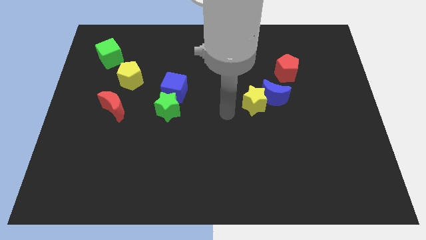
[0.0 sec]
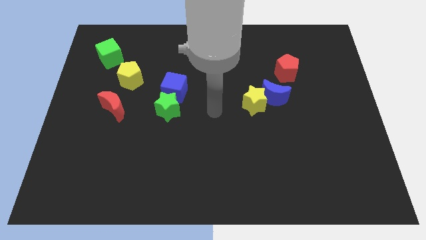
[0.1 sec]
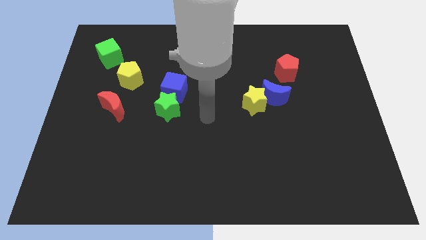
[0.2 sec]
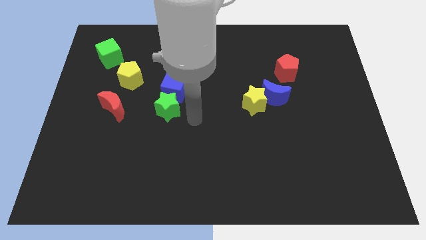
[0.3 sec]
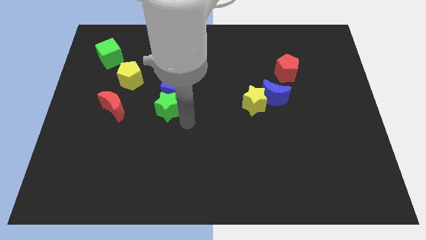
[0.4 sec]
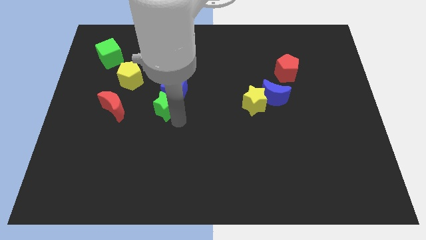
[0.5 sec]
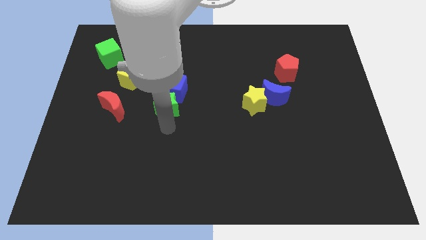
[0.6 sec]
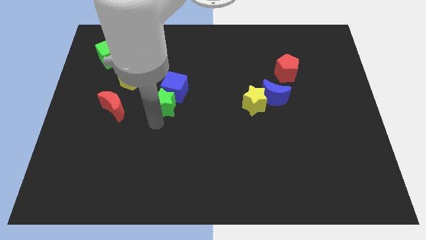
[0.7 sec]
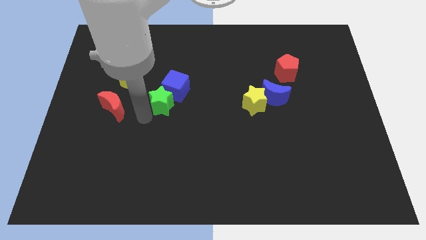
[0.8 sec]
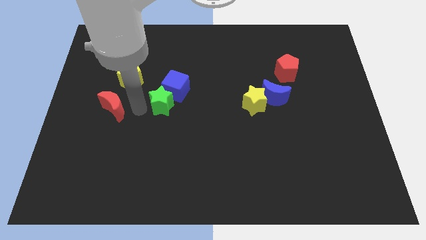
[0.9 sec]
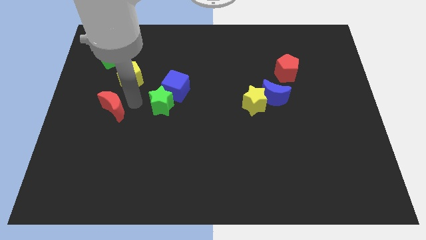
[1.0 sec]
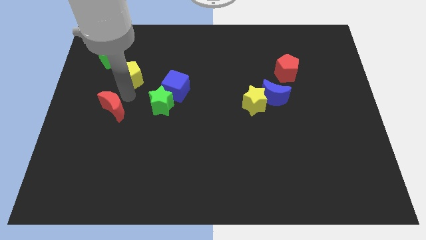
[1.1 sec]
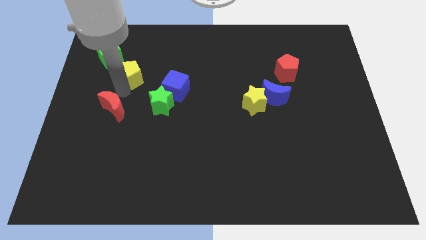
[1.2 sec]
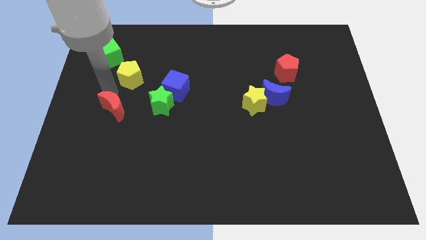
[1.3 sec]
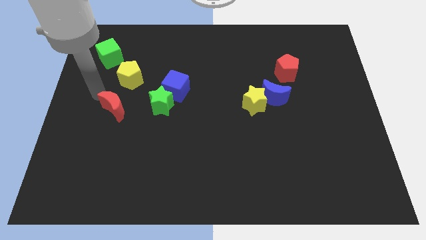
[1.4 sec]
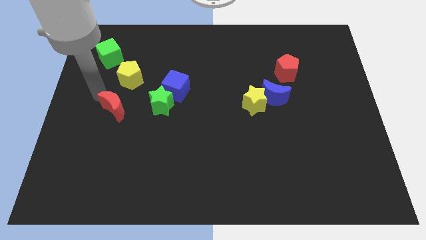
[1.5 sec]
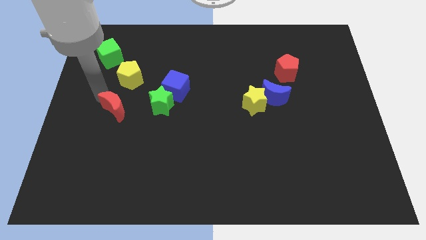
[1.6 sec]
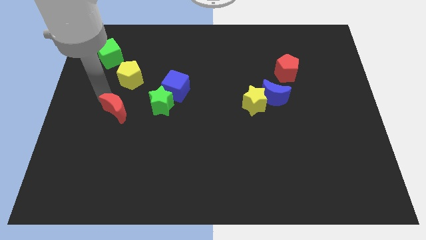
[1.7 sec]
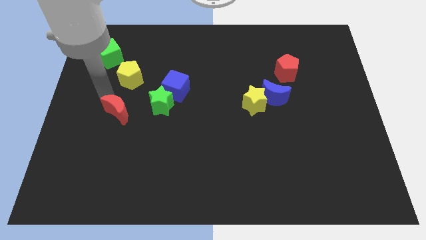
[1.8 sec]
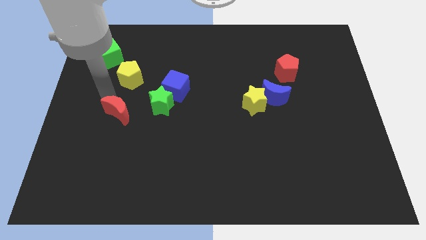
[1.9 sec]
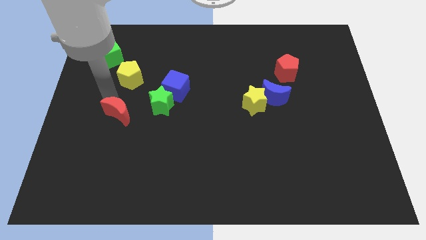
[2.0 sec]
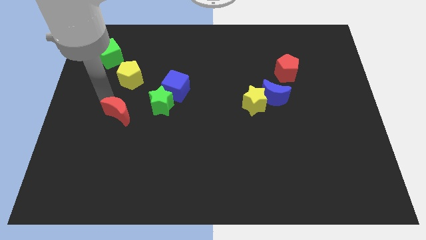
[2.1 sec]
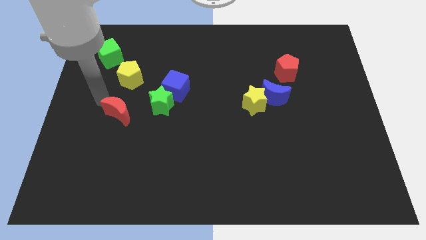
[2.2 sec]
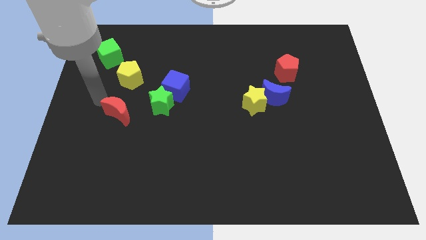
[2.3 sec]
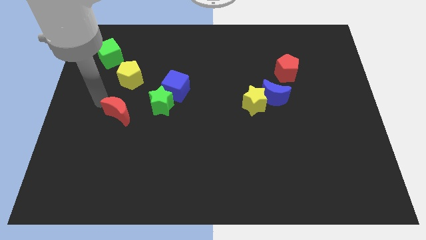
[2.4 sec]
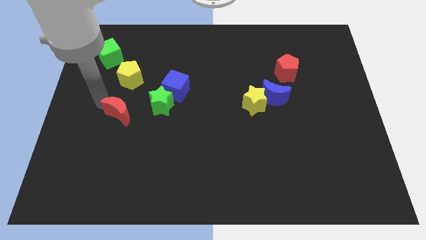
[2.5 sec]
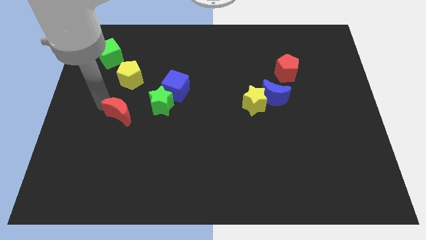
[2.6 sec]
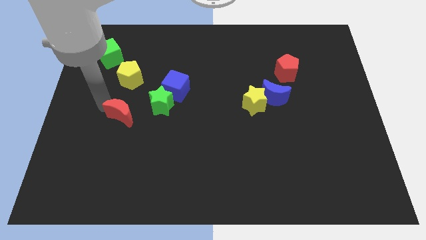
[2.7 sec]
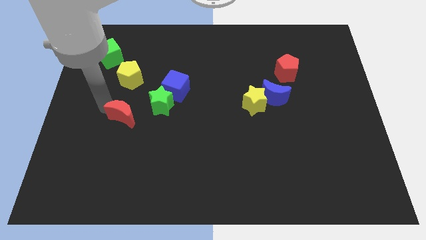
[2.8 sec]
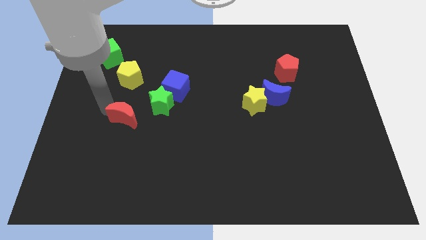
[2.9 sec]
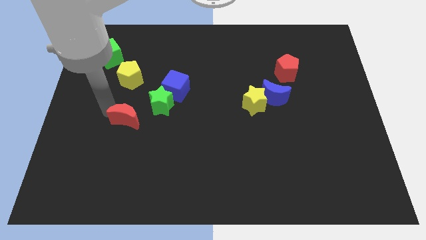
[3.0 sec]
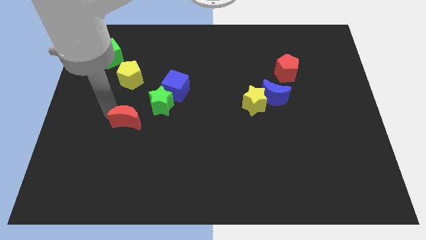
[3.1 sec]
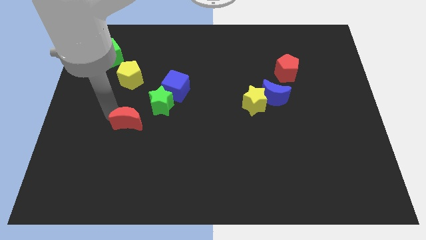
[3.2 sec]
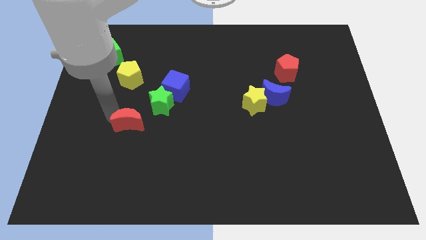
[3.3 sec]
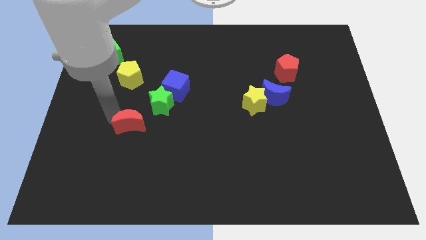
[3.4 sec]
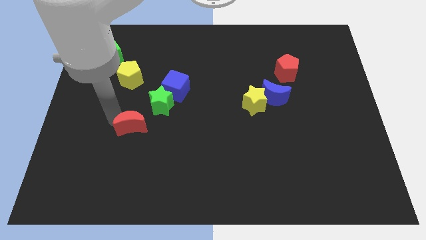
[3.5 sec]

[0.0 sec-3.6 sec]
move the red moon down and to the right diagonally a little

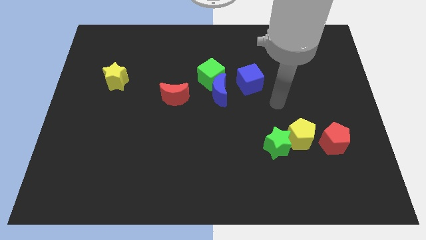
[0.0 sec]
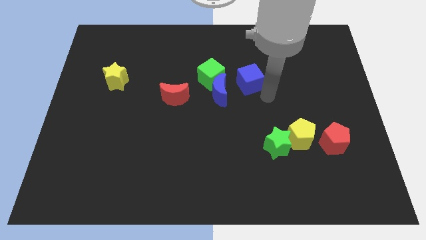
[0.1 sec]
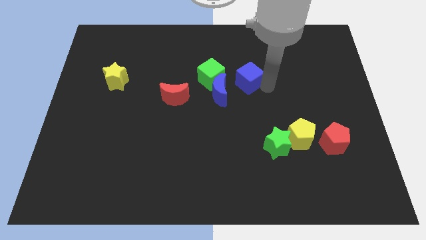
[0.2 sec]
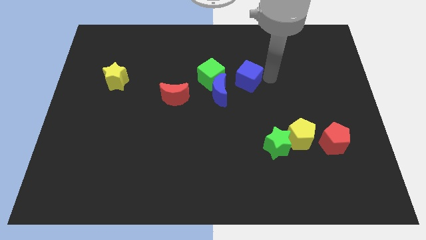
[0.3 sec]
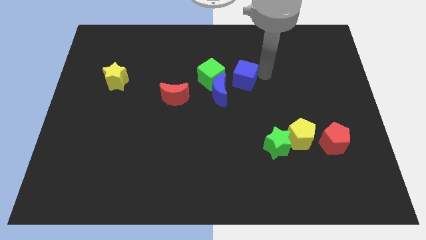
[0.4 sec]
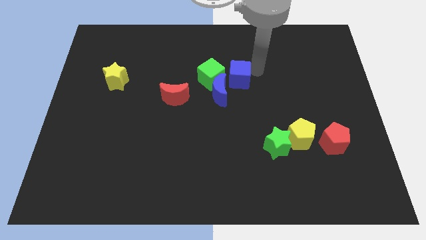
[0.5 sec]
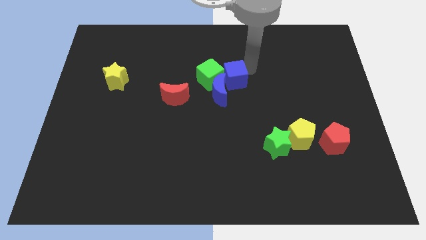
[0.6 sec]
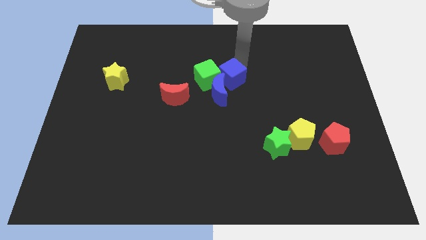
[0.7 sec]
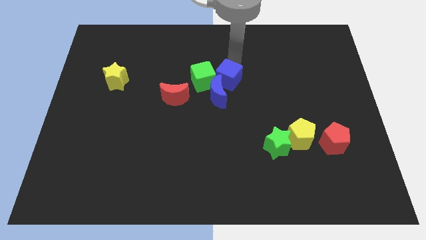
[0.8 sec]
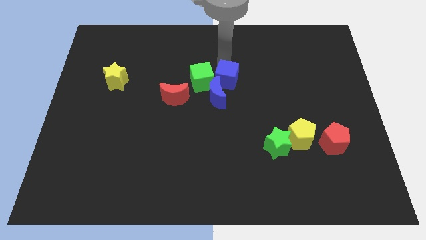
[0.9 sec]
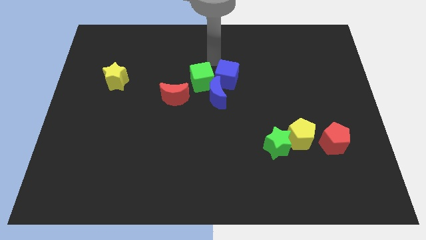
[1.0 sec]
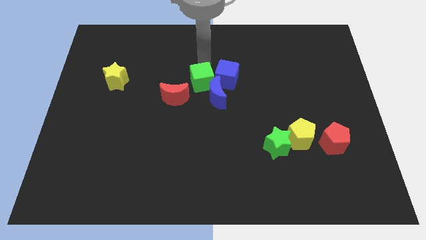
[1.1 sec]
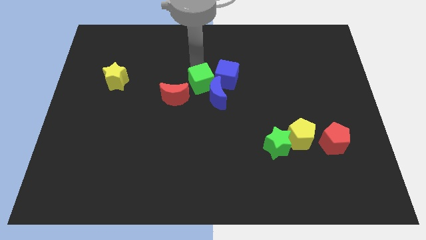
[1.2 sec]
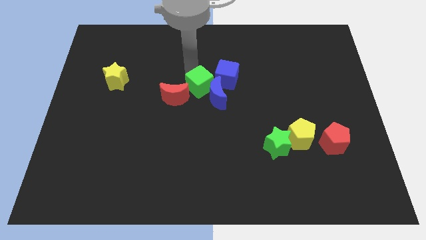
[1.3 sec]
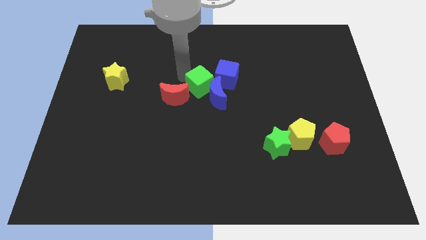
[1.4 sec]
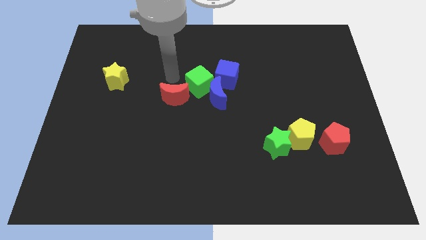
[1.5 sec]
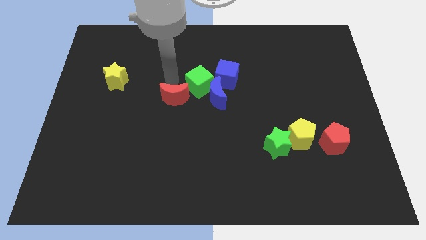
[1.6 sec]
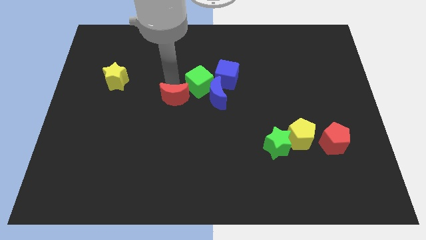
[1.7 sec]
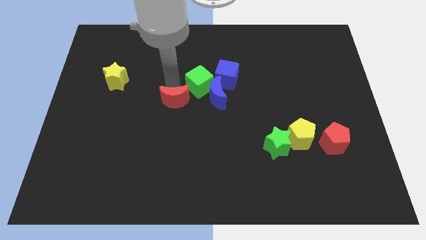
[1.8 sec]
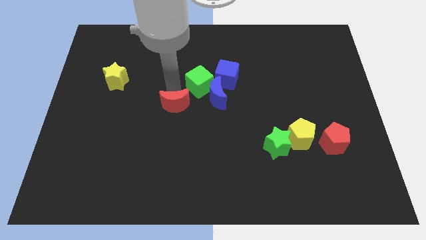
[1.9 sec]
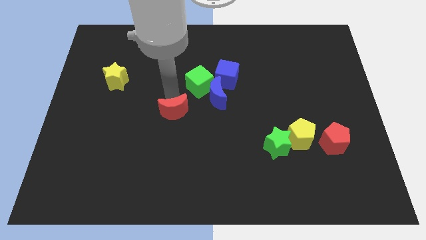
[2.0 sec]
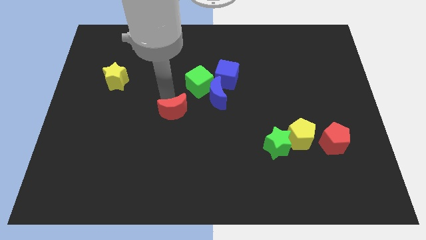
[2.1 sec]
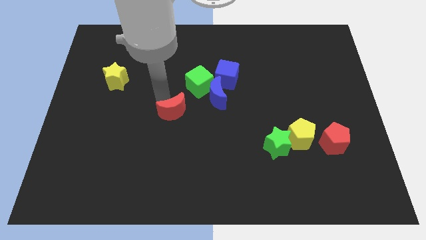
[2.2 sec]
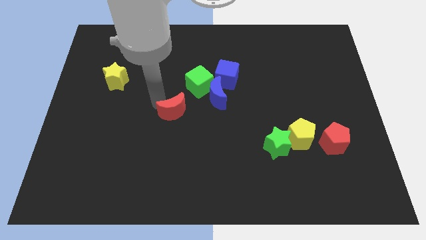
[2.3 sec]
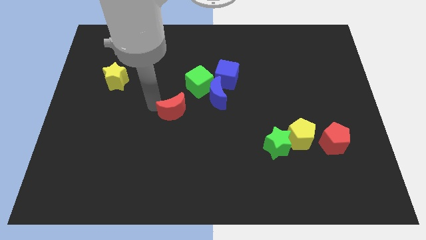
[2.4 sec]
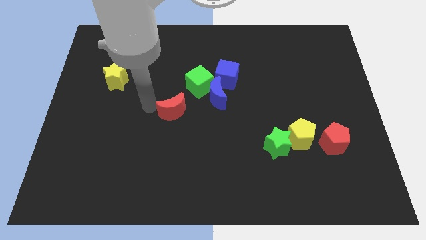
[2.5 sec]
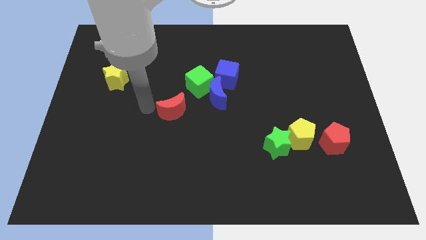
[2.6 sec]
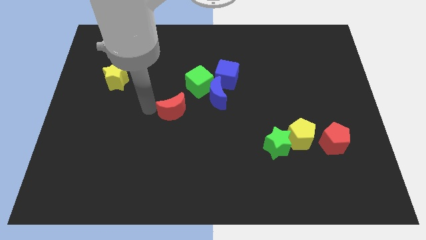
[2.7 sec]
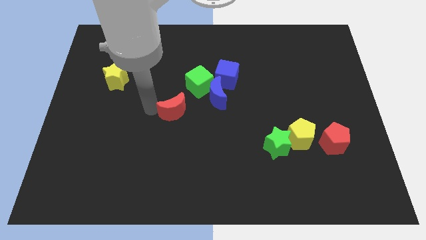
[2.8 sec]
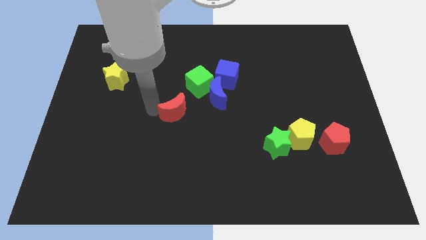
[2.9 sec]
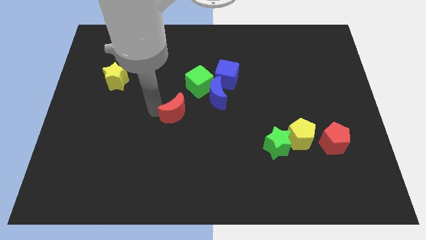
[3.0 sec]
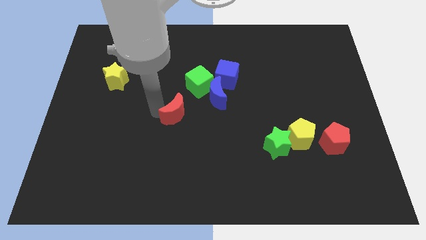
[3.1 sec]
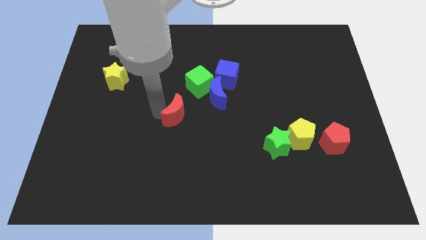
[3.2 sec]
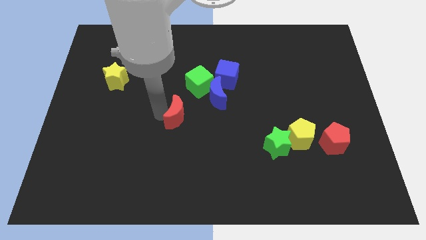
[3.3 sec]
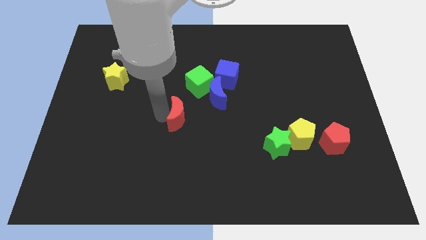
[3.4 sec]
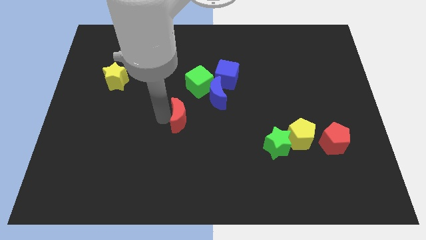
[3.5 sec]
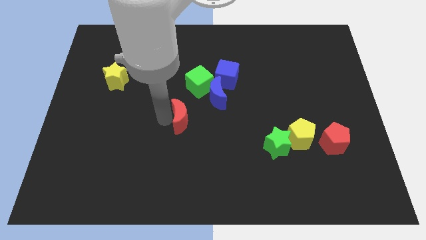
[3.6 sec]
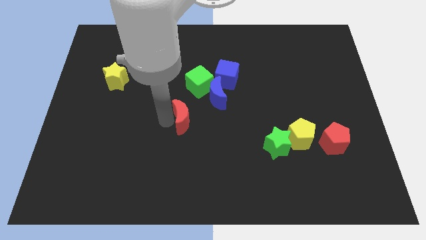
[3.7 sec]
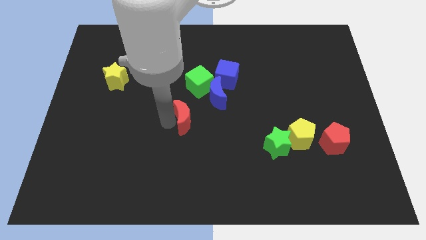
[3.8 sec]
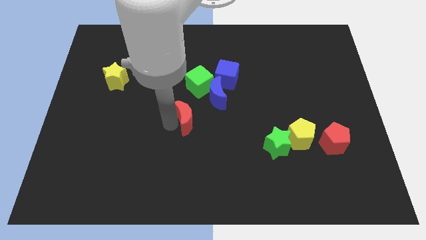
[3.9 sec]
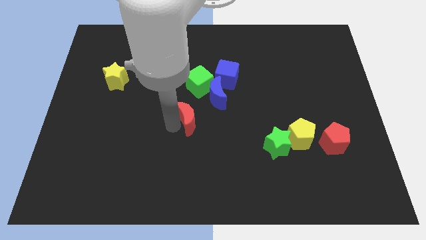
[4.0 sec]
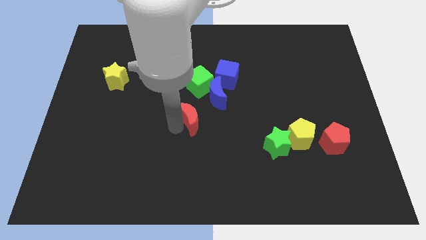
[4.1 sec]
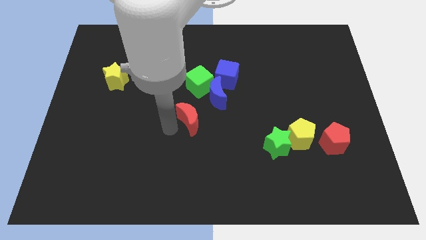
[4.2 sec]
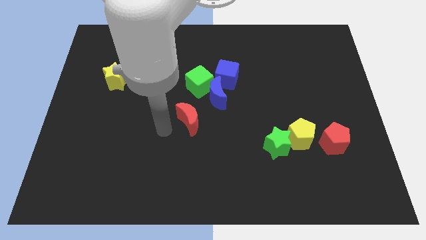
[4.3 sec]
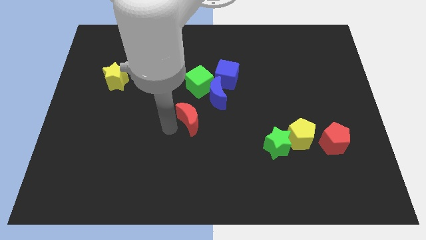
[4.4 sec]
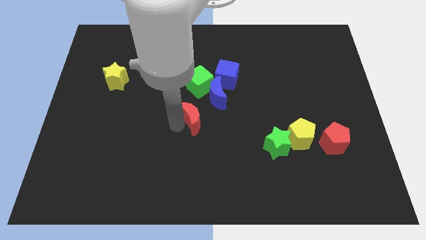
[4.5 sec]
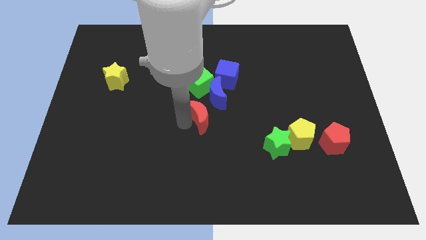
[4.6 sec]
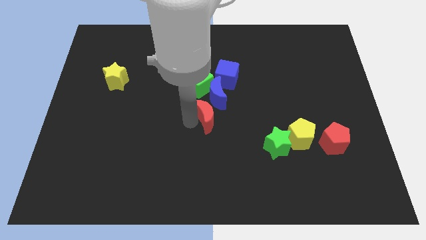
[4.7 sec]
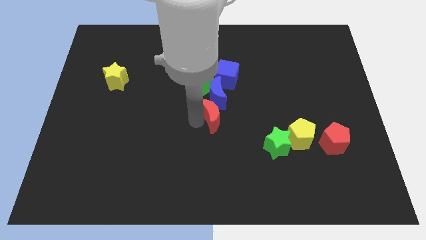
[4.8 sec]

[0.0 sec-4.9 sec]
move the red moon a bit to the right
